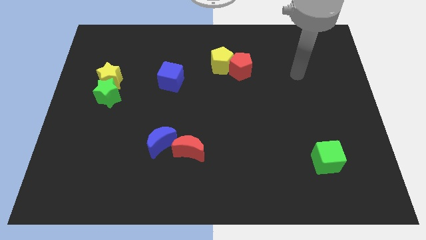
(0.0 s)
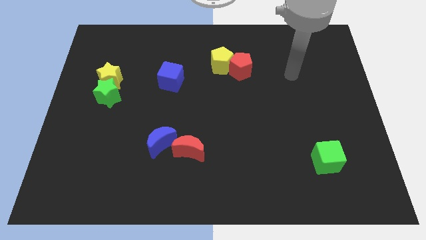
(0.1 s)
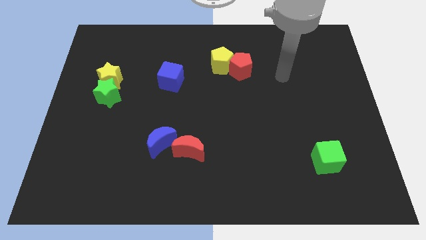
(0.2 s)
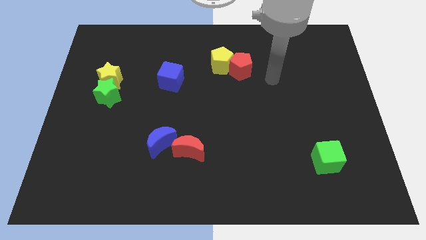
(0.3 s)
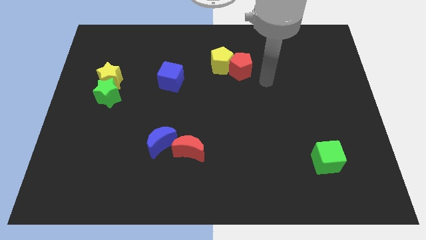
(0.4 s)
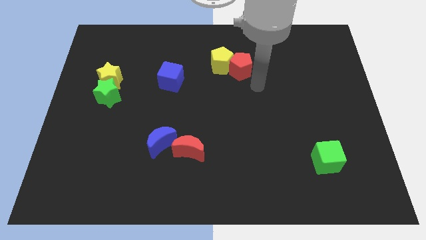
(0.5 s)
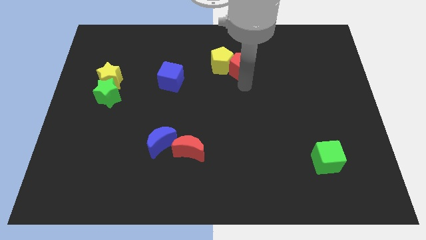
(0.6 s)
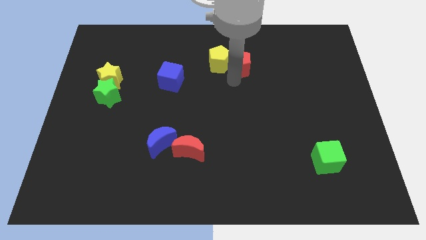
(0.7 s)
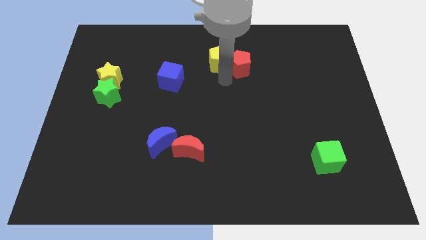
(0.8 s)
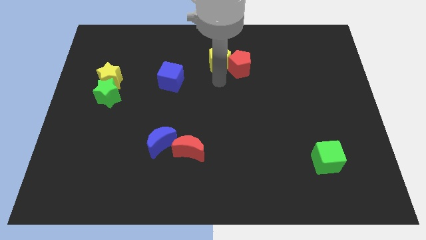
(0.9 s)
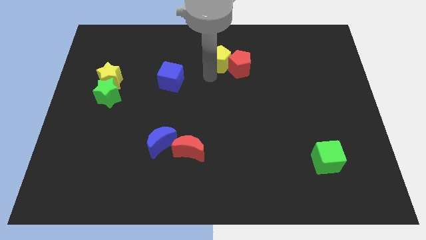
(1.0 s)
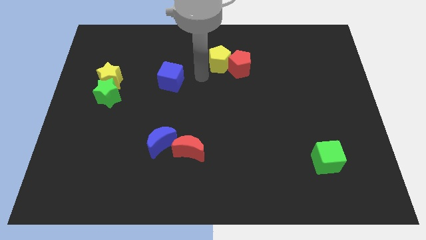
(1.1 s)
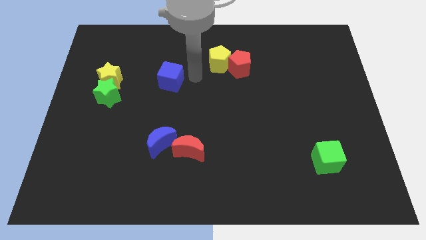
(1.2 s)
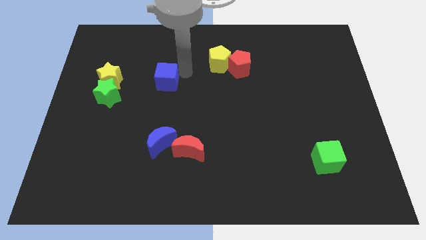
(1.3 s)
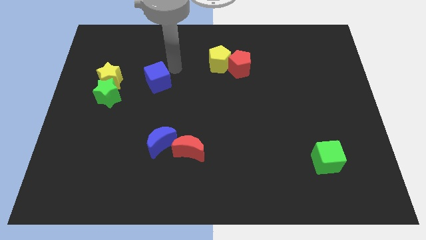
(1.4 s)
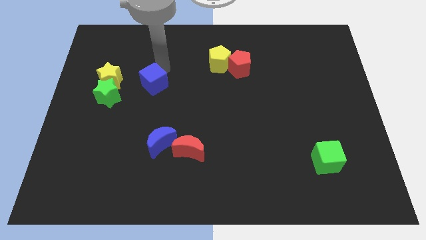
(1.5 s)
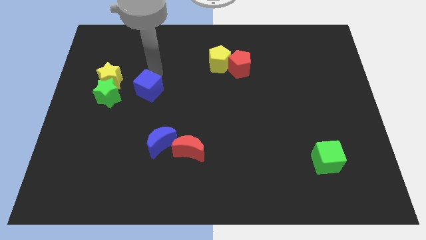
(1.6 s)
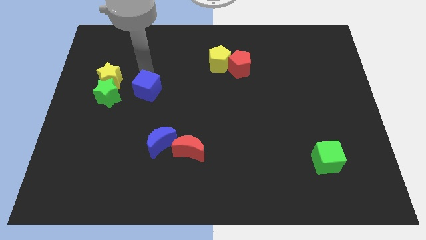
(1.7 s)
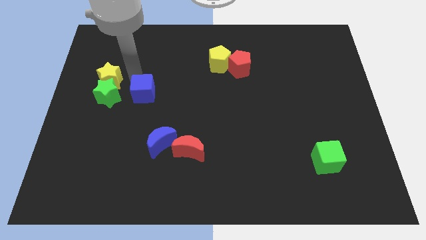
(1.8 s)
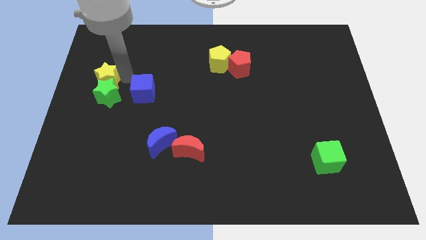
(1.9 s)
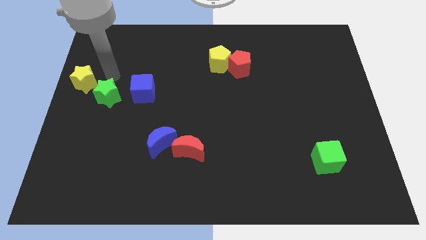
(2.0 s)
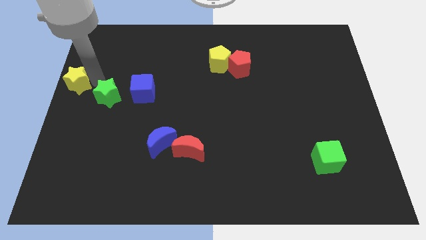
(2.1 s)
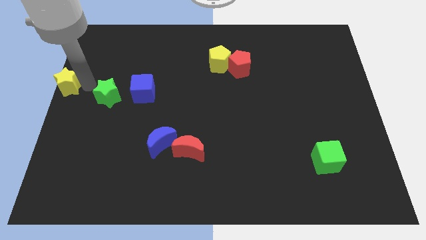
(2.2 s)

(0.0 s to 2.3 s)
pull the green star apart from the yellow star

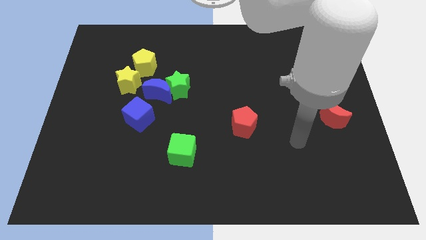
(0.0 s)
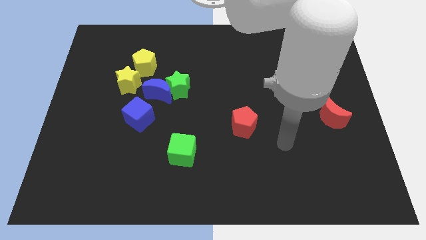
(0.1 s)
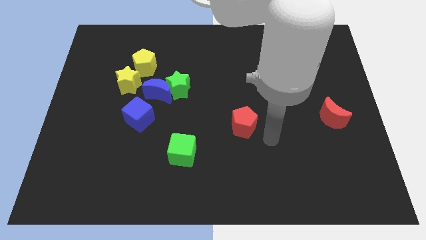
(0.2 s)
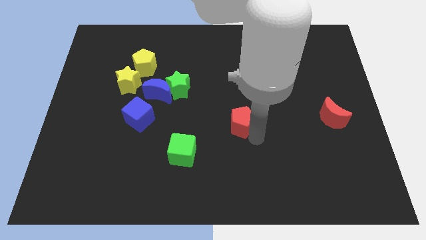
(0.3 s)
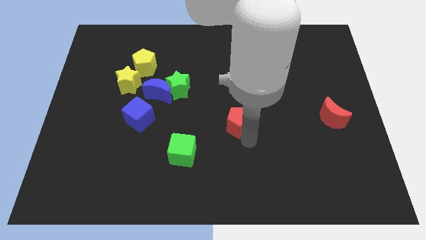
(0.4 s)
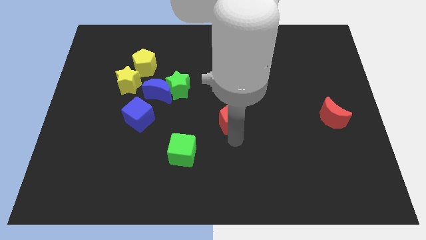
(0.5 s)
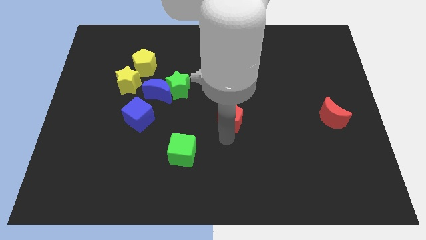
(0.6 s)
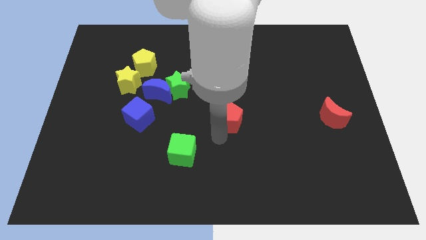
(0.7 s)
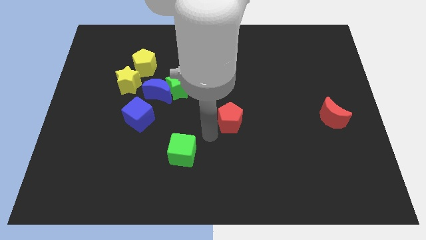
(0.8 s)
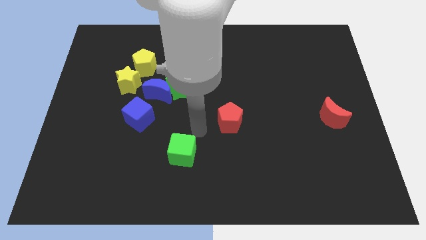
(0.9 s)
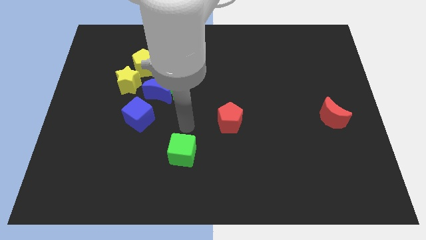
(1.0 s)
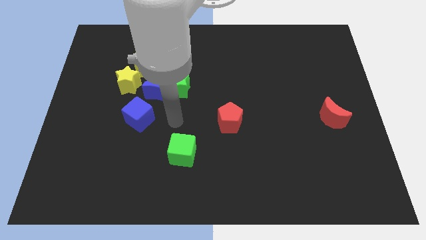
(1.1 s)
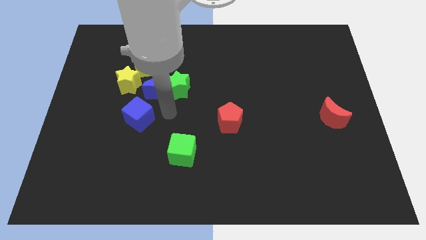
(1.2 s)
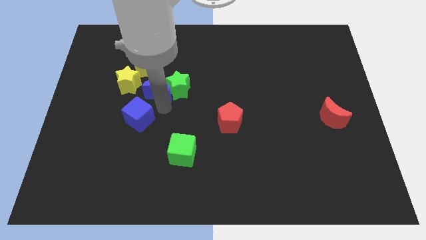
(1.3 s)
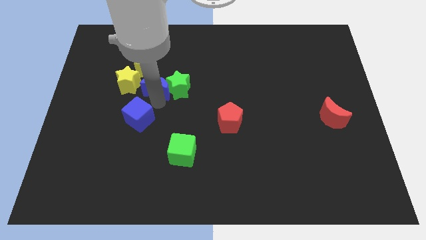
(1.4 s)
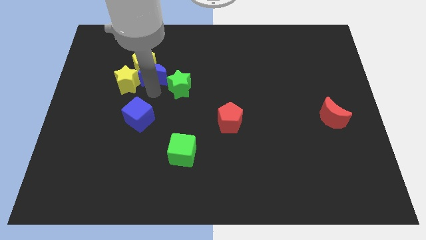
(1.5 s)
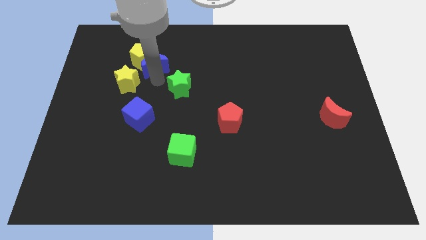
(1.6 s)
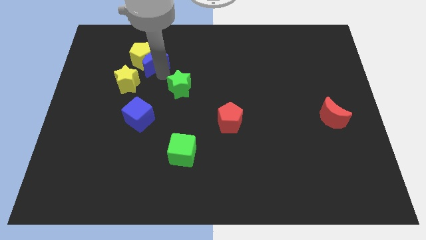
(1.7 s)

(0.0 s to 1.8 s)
pull the green star apart from the blue moon

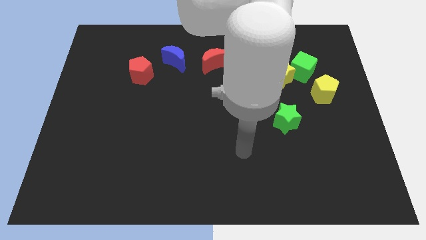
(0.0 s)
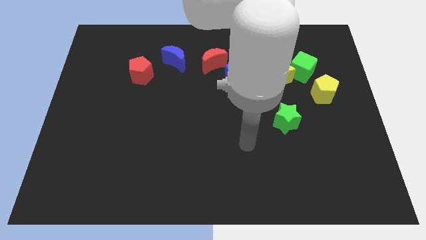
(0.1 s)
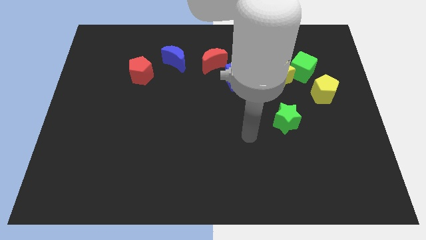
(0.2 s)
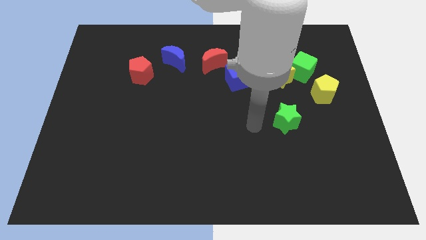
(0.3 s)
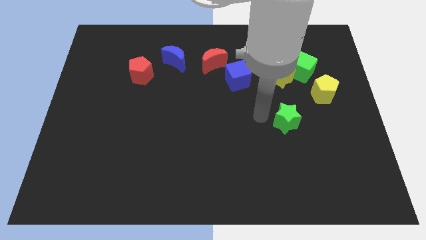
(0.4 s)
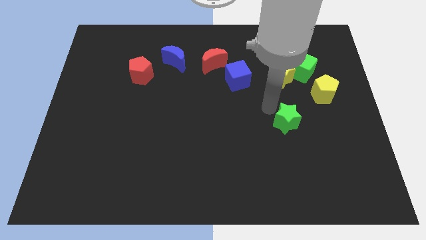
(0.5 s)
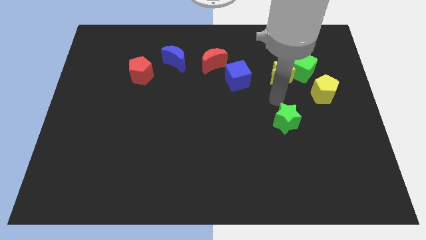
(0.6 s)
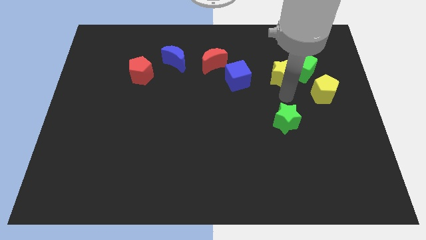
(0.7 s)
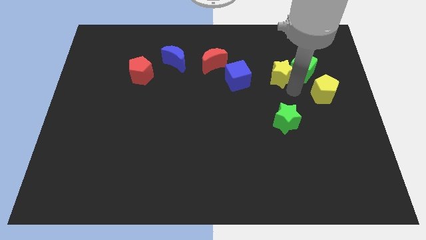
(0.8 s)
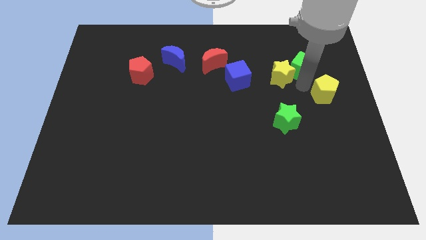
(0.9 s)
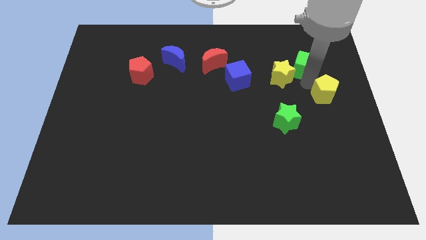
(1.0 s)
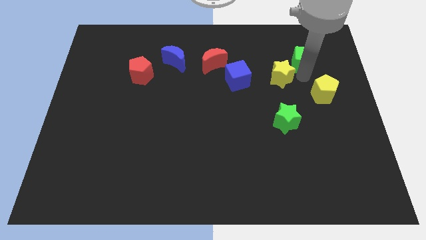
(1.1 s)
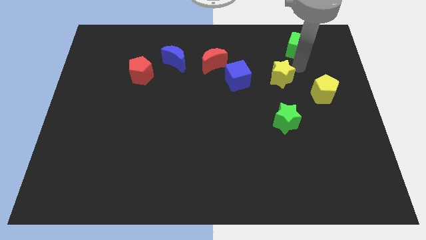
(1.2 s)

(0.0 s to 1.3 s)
separate the yellow star from the green cube

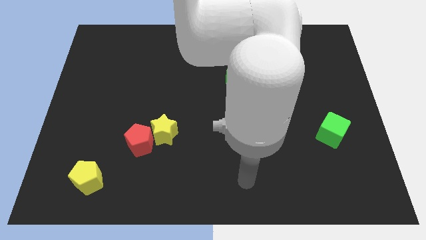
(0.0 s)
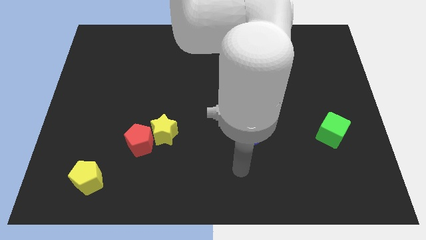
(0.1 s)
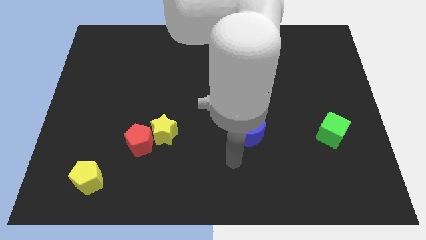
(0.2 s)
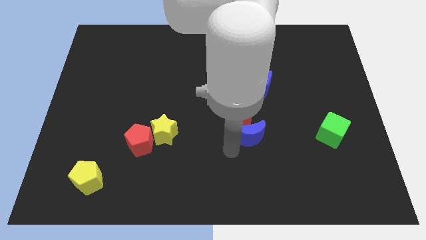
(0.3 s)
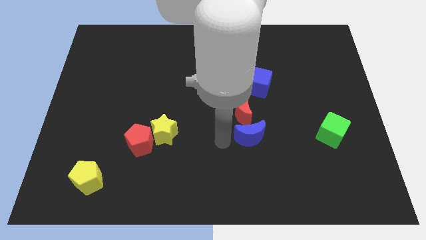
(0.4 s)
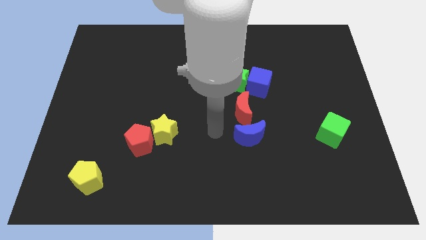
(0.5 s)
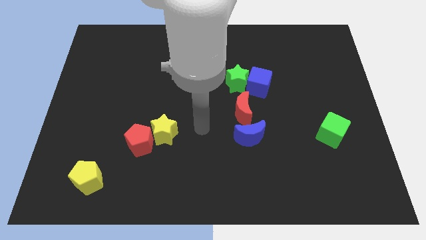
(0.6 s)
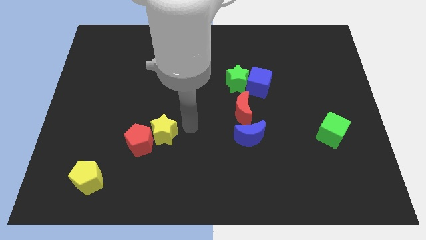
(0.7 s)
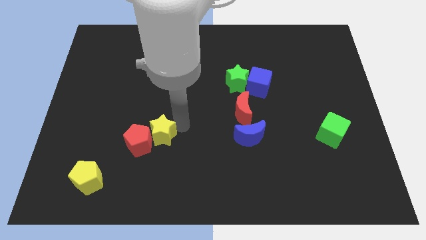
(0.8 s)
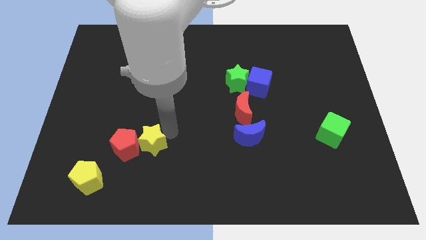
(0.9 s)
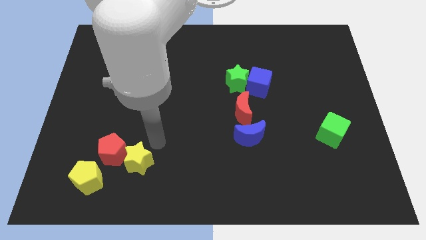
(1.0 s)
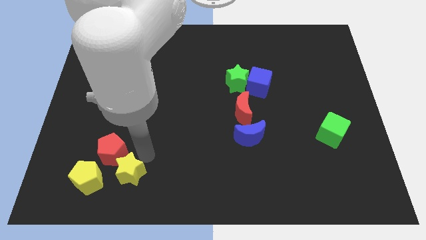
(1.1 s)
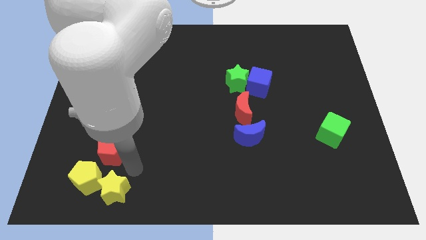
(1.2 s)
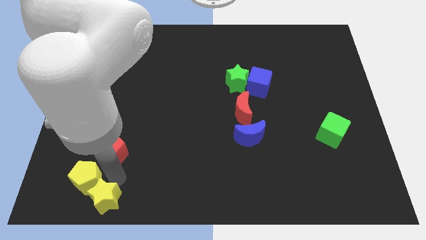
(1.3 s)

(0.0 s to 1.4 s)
move the red pentagon away from the yellow star

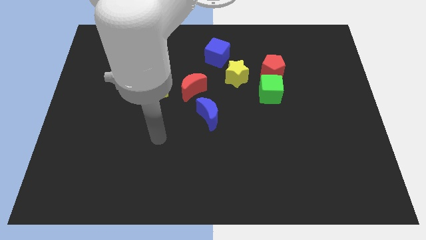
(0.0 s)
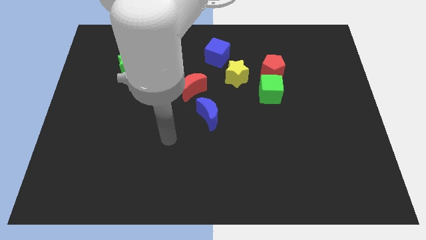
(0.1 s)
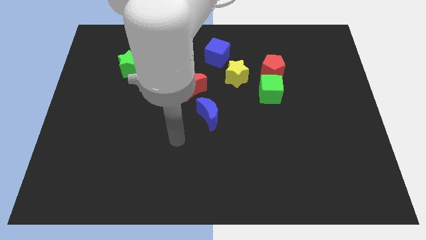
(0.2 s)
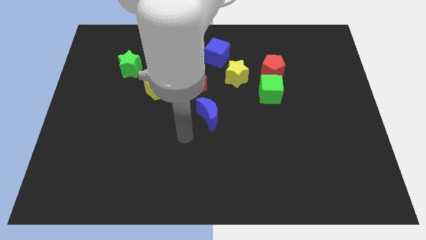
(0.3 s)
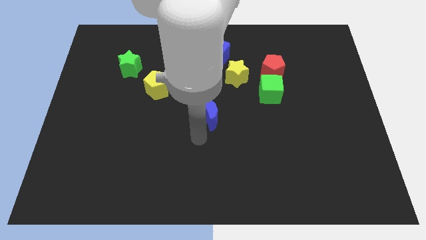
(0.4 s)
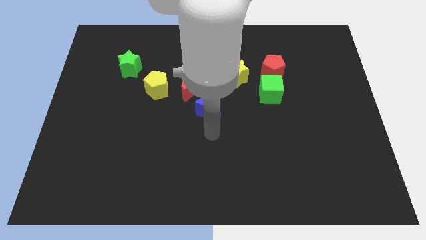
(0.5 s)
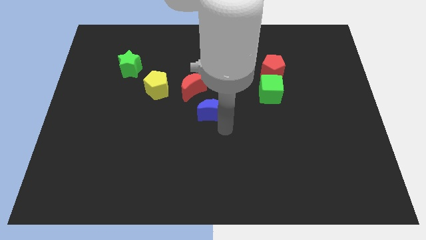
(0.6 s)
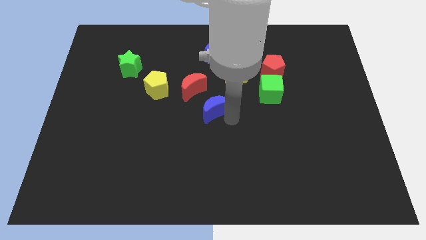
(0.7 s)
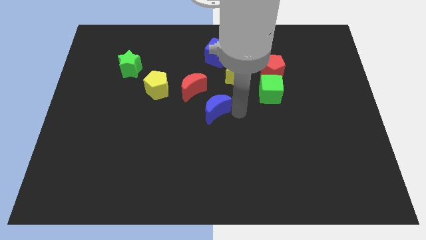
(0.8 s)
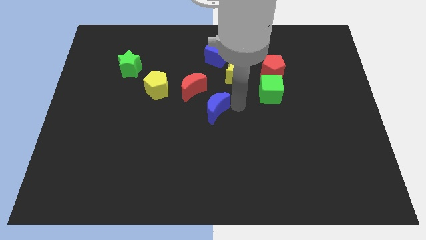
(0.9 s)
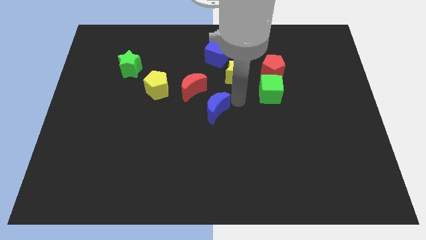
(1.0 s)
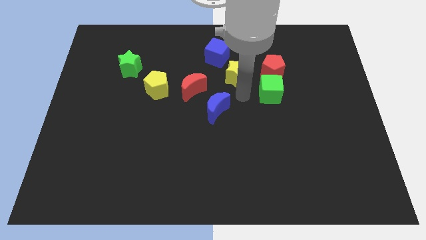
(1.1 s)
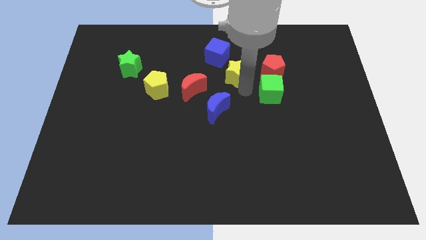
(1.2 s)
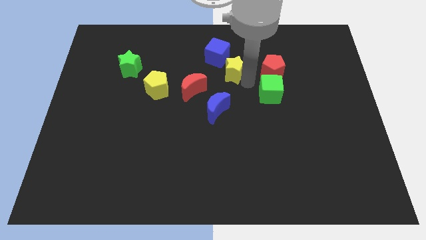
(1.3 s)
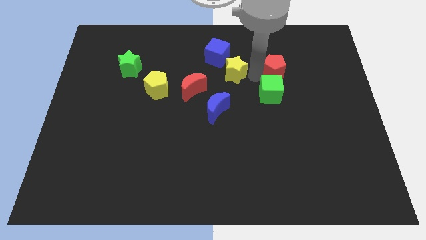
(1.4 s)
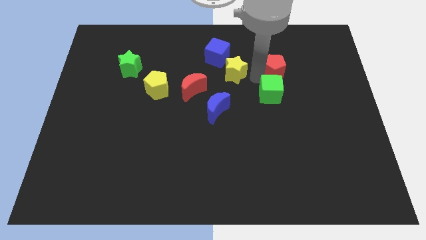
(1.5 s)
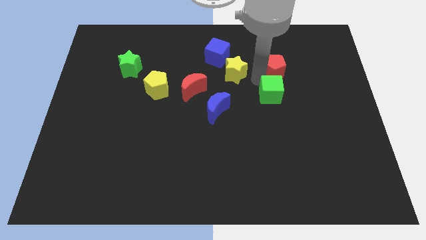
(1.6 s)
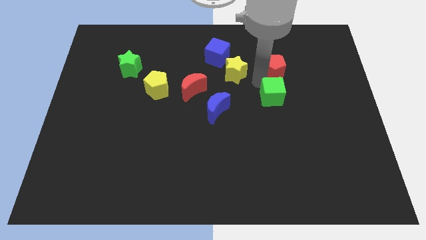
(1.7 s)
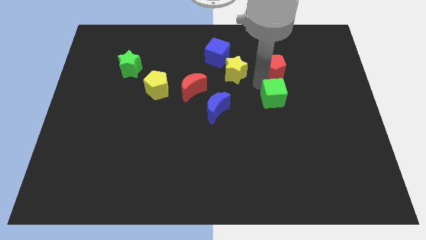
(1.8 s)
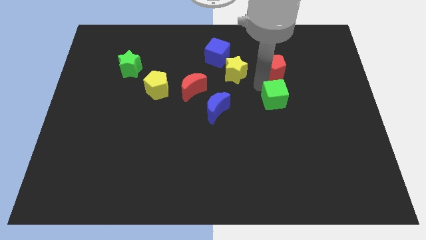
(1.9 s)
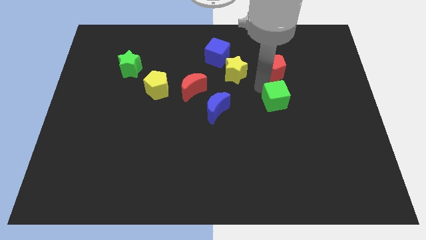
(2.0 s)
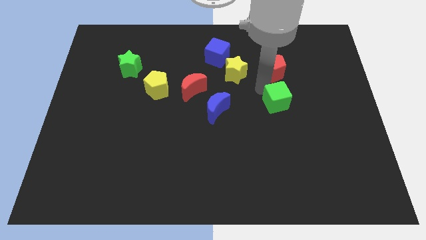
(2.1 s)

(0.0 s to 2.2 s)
move the green cube away from the red pentagon and yellow star

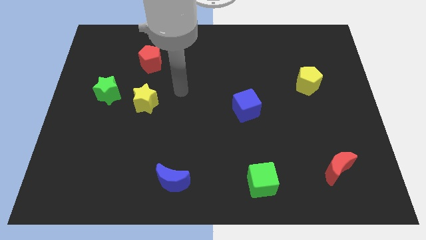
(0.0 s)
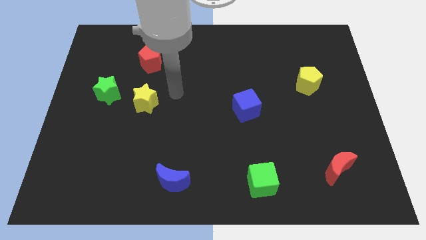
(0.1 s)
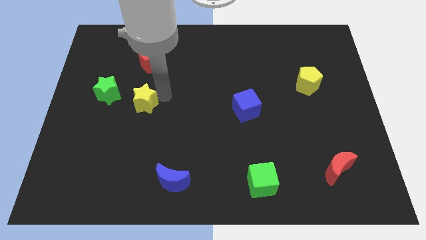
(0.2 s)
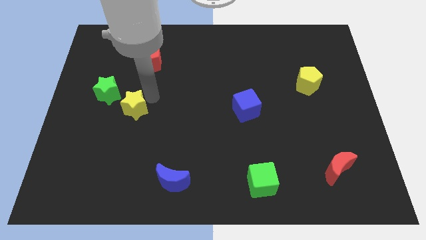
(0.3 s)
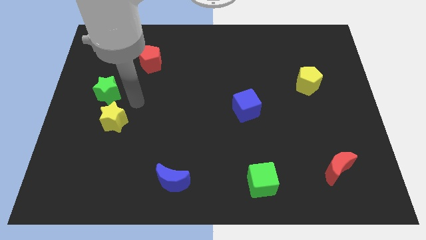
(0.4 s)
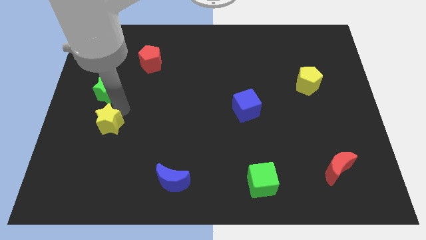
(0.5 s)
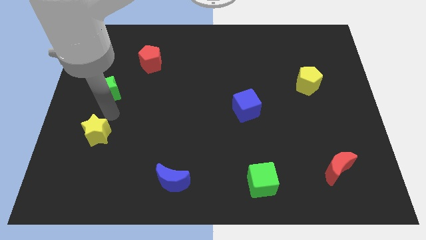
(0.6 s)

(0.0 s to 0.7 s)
move the green star away from the yellow star
